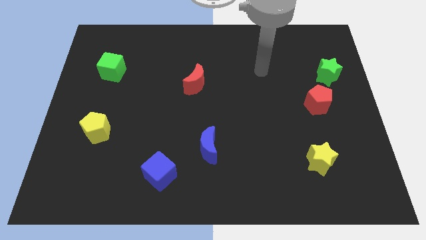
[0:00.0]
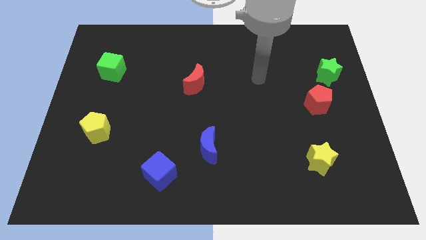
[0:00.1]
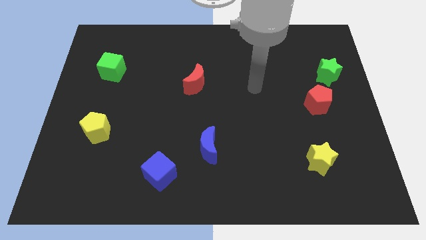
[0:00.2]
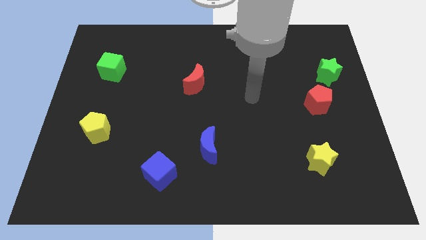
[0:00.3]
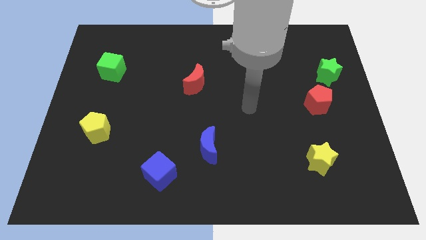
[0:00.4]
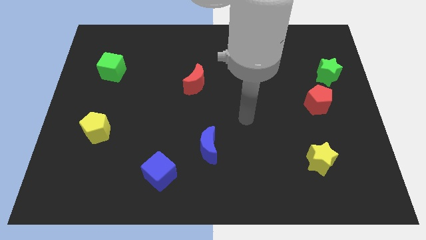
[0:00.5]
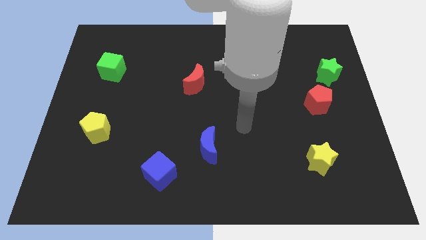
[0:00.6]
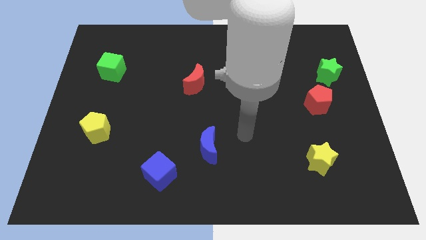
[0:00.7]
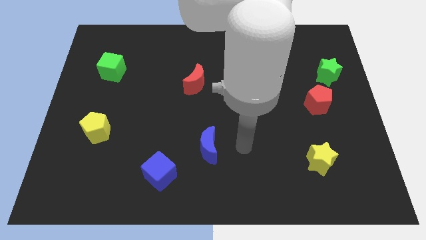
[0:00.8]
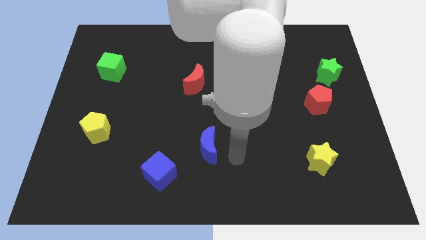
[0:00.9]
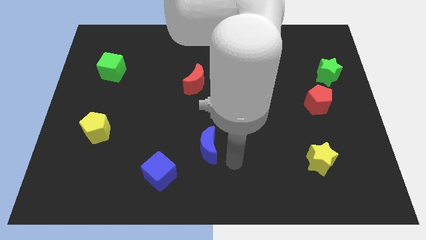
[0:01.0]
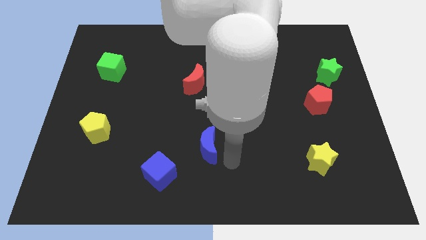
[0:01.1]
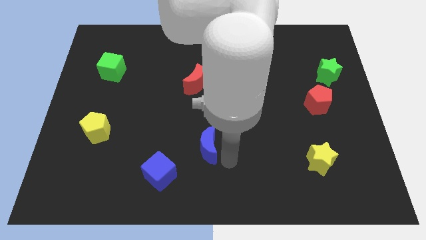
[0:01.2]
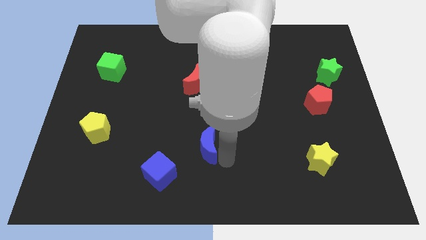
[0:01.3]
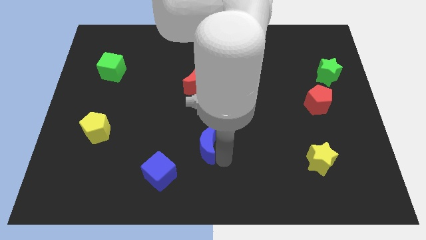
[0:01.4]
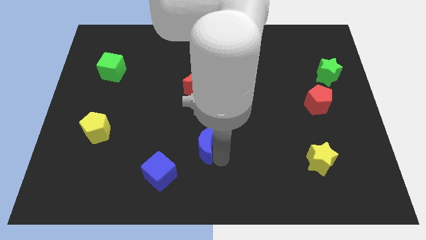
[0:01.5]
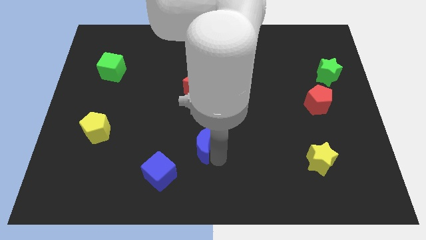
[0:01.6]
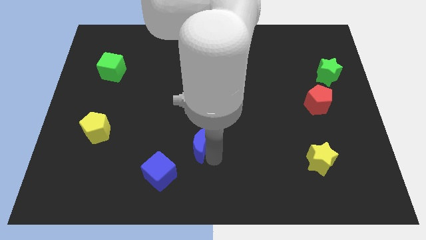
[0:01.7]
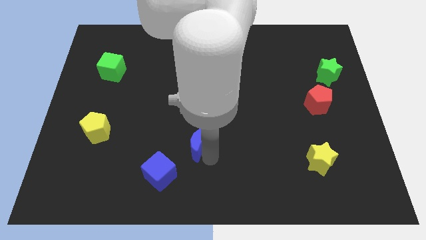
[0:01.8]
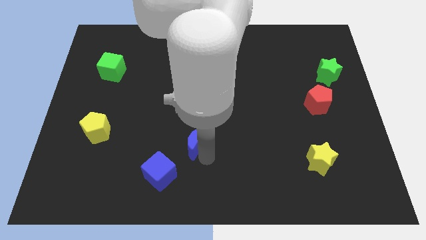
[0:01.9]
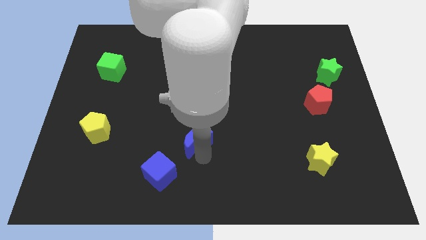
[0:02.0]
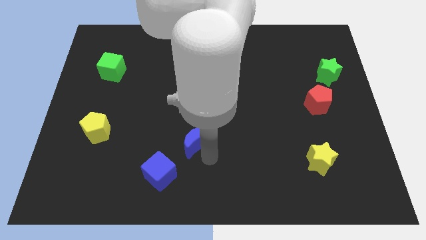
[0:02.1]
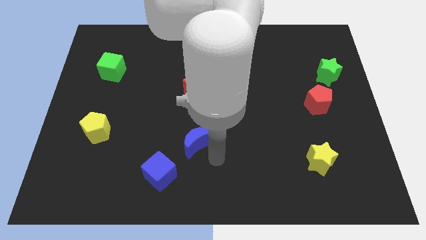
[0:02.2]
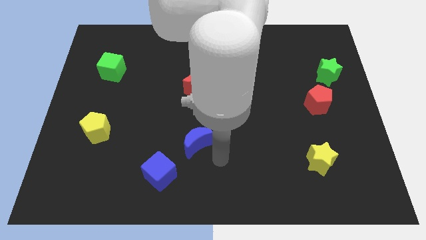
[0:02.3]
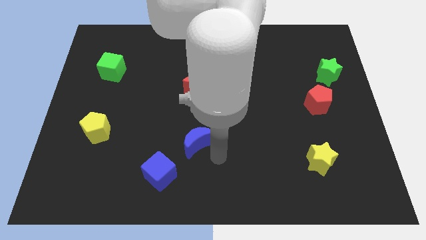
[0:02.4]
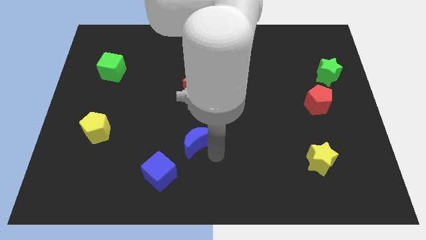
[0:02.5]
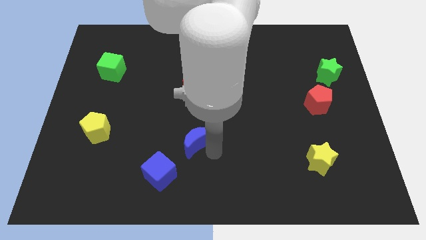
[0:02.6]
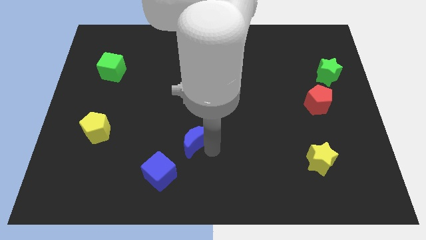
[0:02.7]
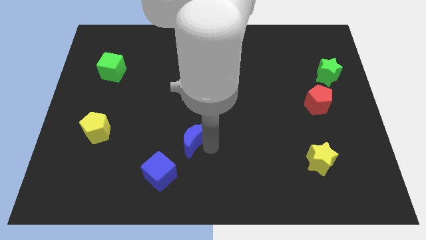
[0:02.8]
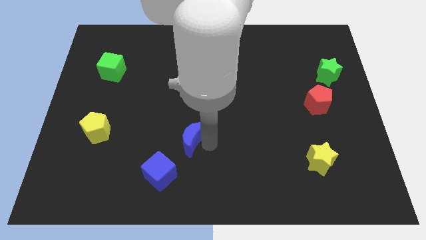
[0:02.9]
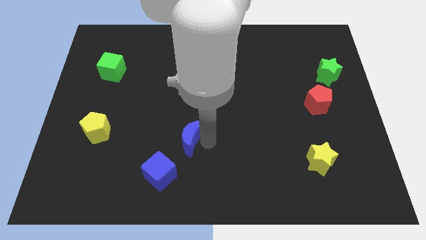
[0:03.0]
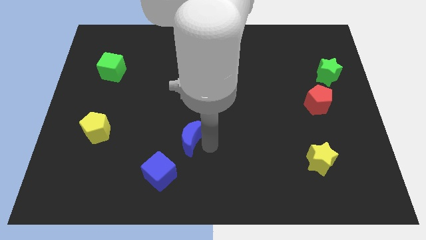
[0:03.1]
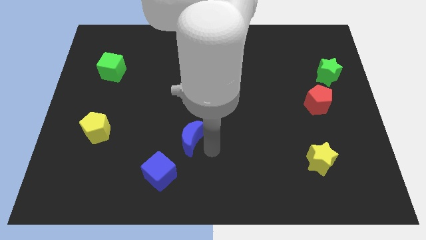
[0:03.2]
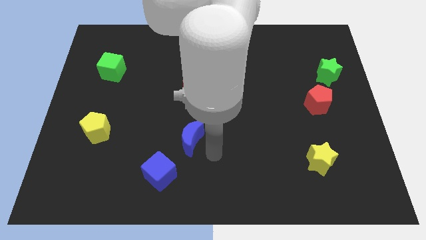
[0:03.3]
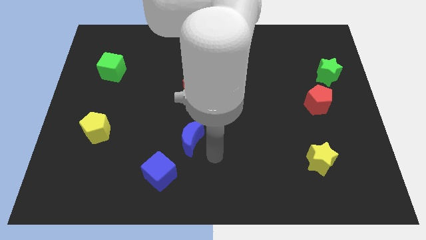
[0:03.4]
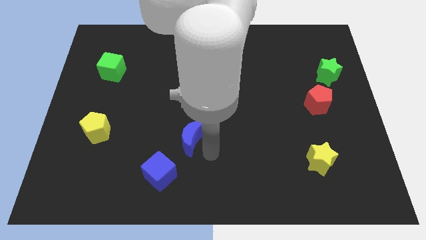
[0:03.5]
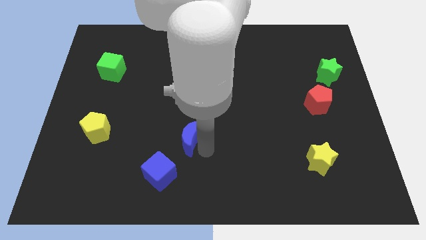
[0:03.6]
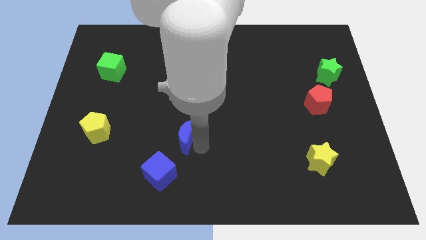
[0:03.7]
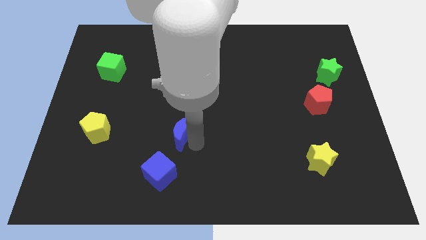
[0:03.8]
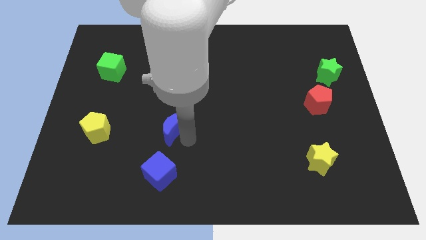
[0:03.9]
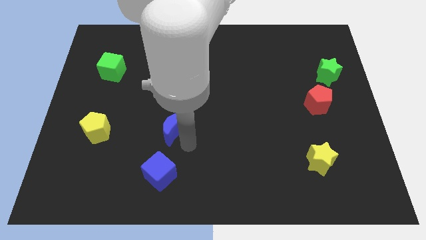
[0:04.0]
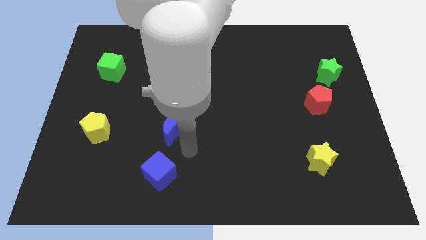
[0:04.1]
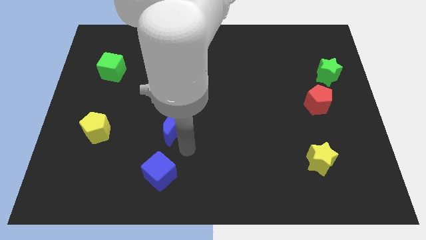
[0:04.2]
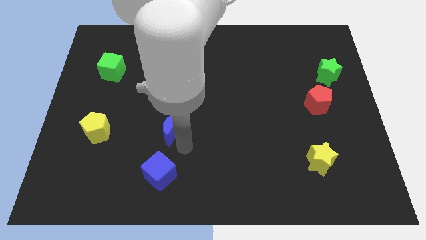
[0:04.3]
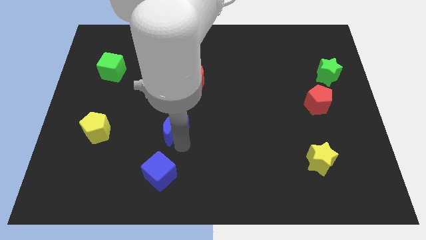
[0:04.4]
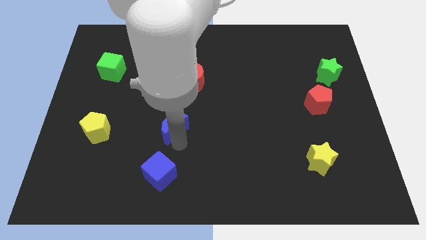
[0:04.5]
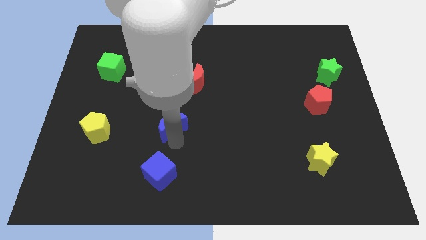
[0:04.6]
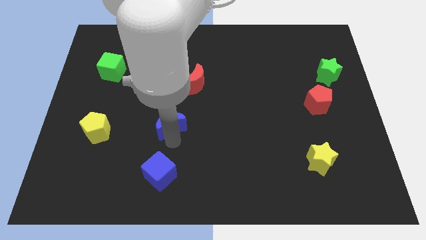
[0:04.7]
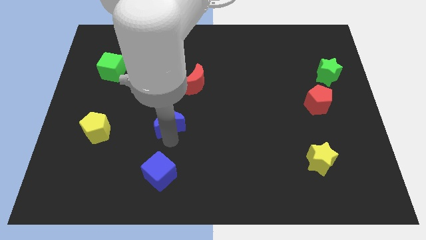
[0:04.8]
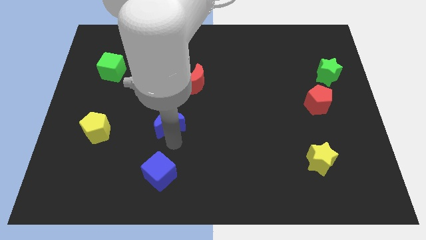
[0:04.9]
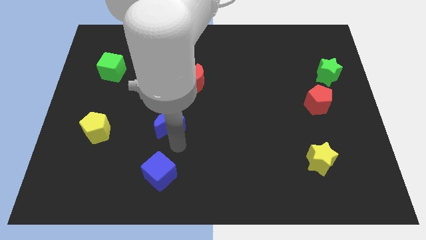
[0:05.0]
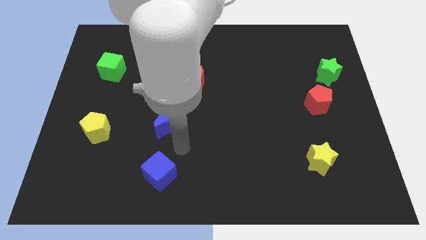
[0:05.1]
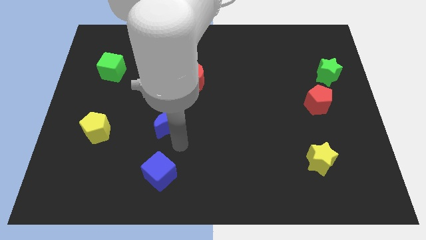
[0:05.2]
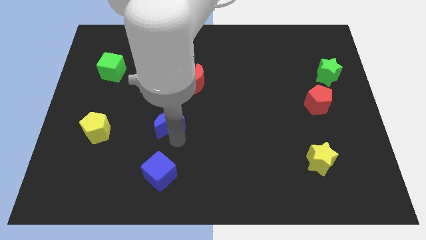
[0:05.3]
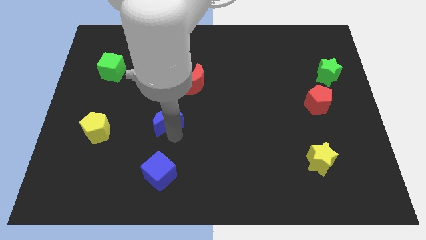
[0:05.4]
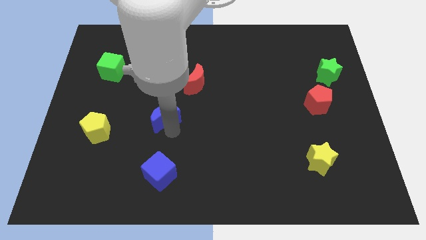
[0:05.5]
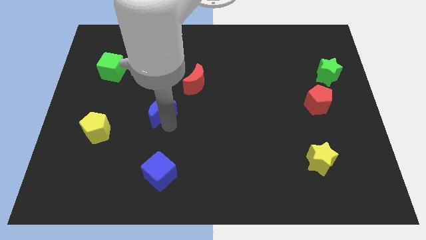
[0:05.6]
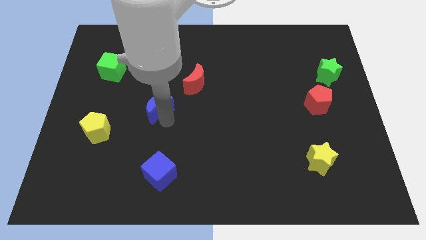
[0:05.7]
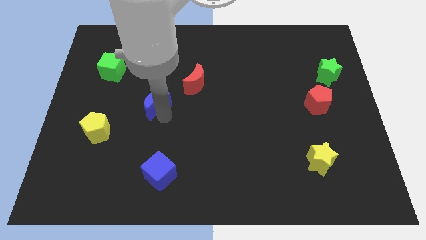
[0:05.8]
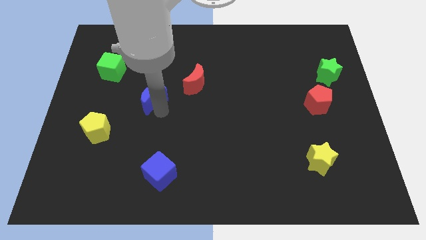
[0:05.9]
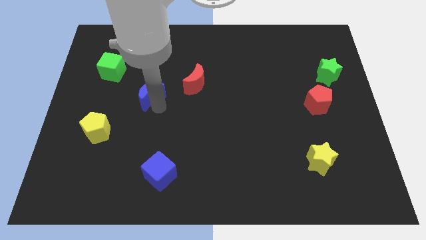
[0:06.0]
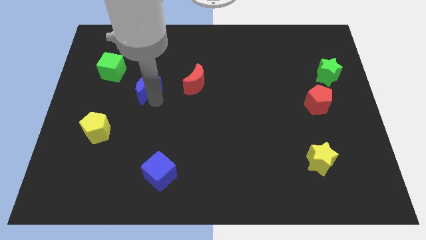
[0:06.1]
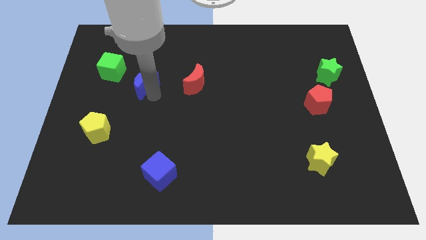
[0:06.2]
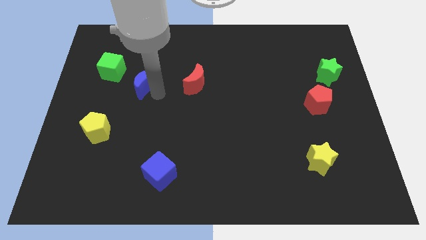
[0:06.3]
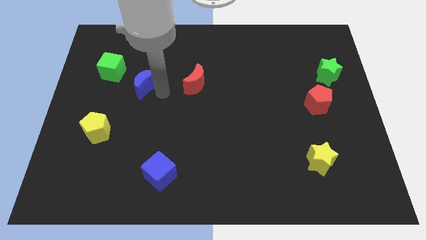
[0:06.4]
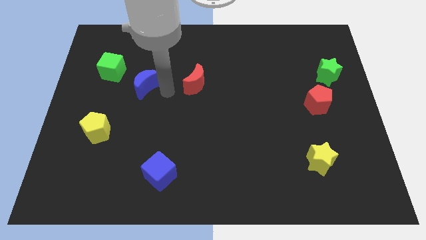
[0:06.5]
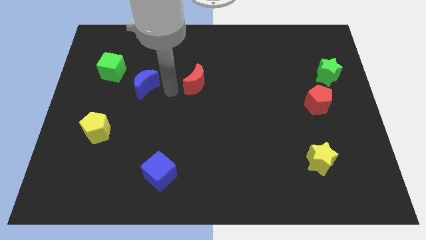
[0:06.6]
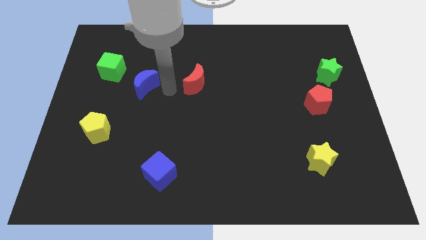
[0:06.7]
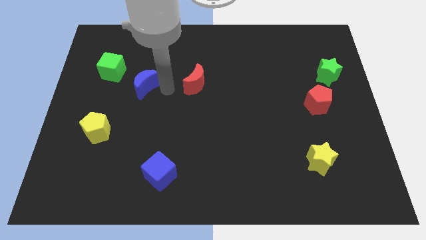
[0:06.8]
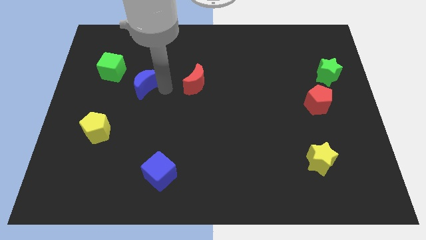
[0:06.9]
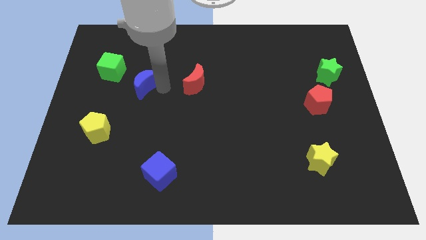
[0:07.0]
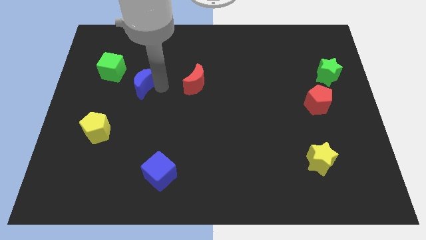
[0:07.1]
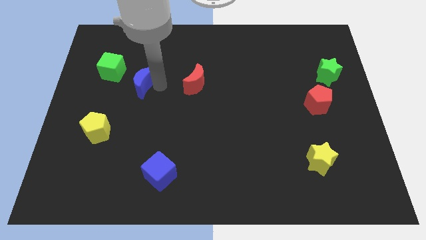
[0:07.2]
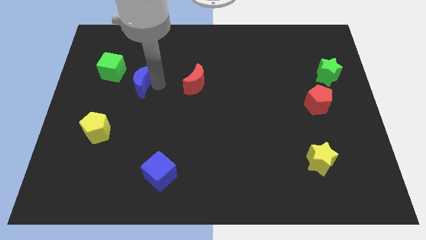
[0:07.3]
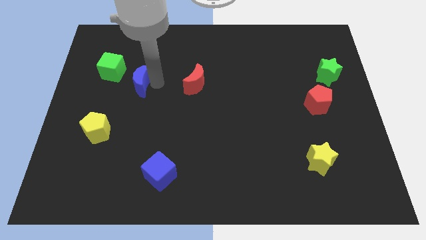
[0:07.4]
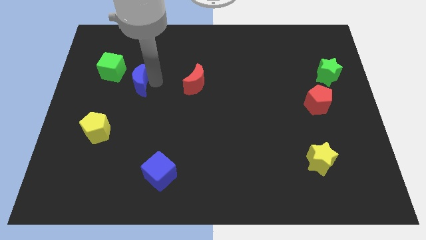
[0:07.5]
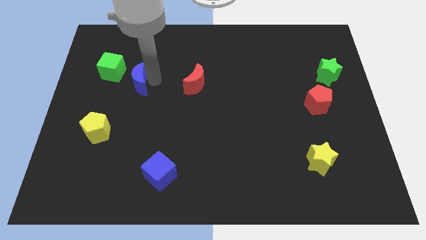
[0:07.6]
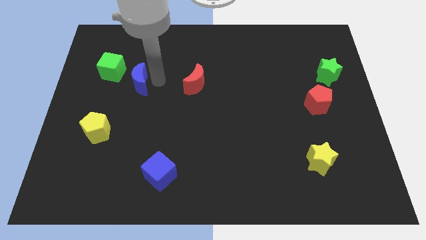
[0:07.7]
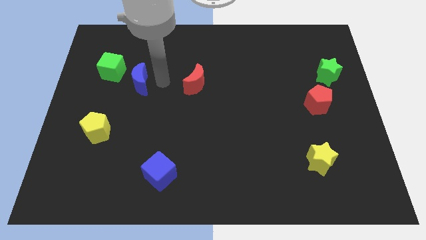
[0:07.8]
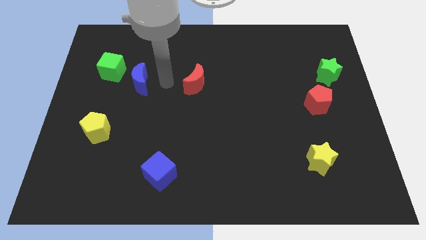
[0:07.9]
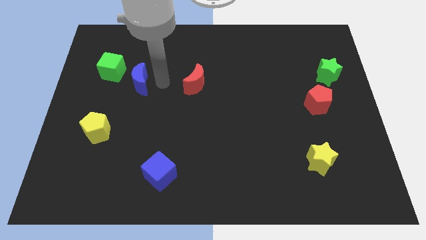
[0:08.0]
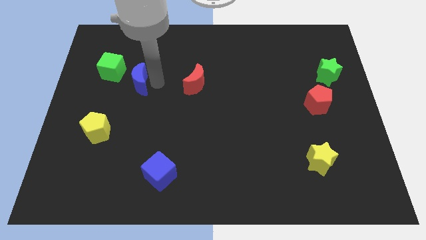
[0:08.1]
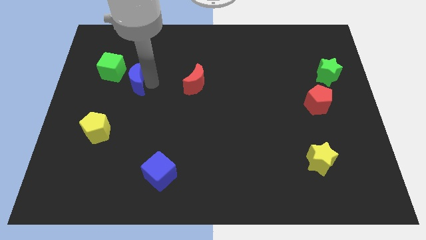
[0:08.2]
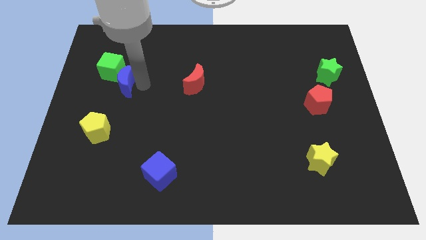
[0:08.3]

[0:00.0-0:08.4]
slide the blue moon towards the green cube
